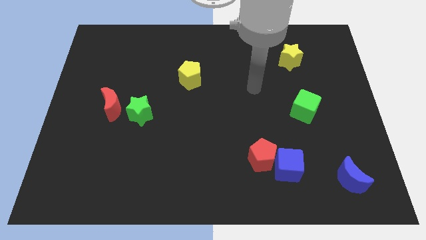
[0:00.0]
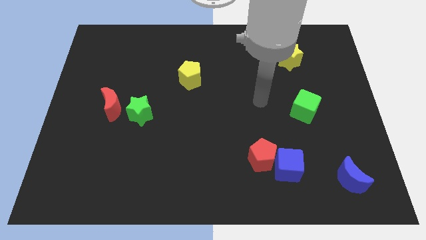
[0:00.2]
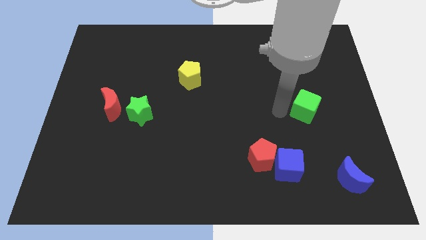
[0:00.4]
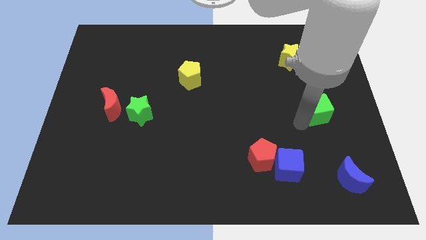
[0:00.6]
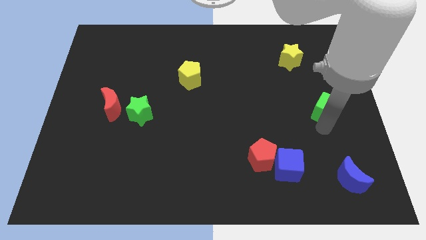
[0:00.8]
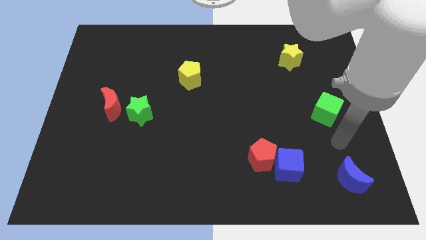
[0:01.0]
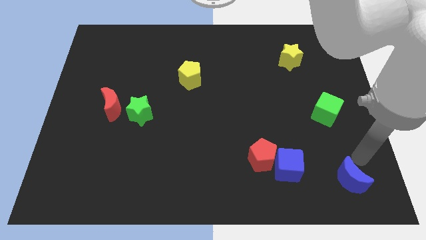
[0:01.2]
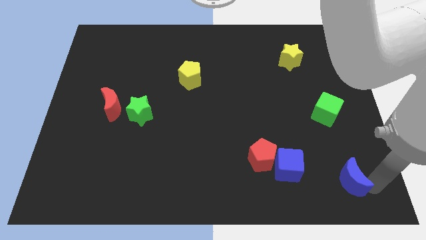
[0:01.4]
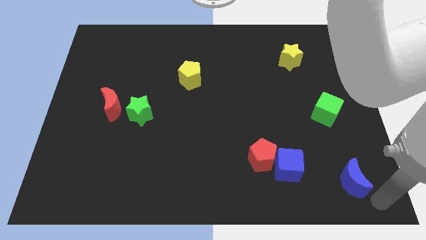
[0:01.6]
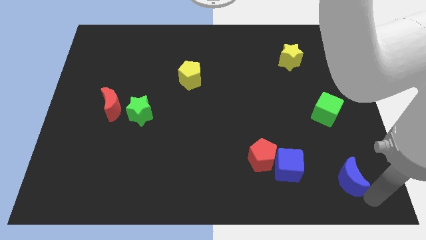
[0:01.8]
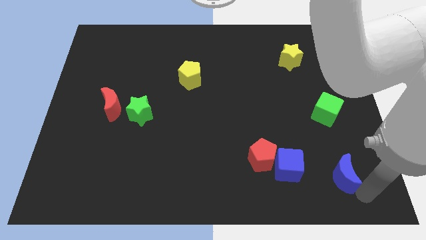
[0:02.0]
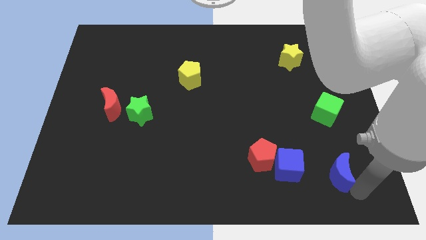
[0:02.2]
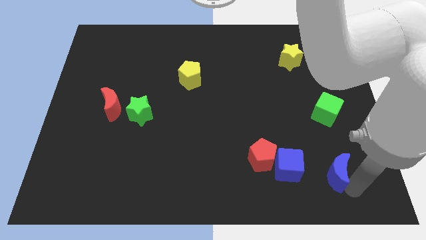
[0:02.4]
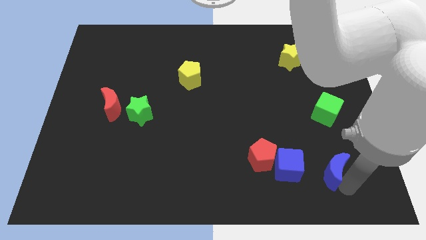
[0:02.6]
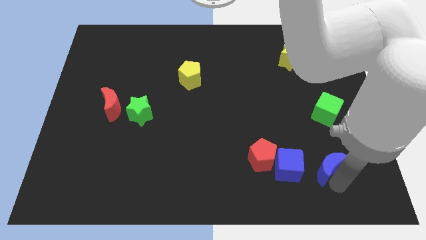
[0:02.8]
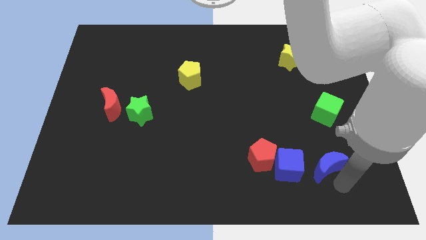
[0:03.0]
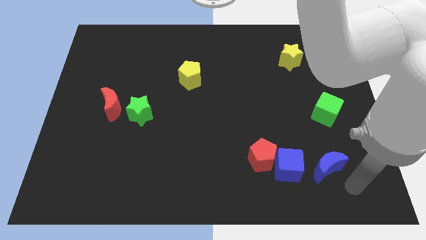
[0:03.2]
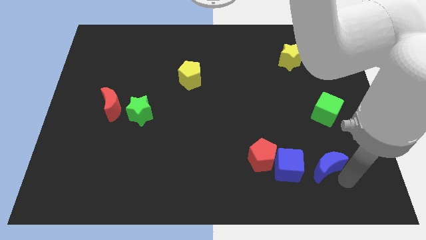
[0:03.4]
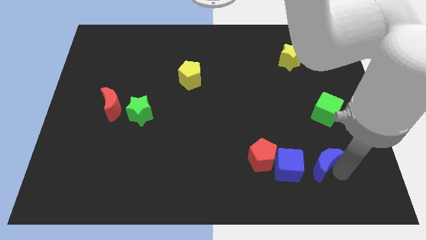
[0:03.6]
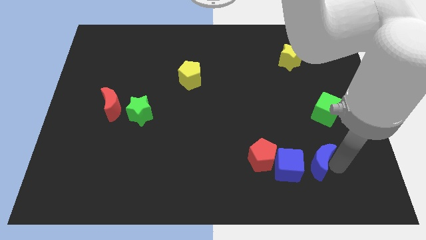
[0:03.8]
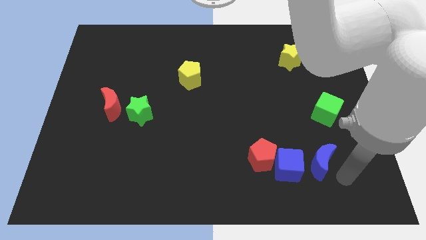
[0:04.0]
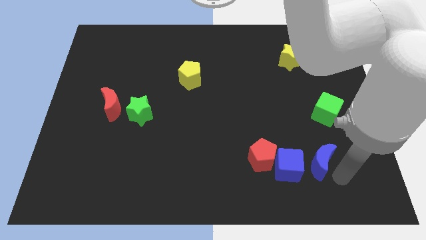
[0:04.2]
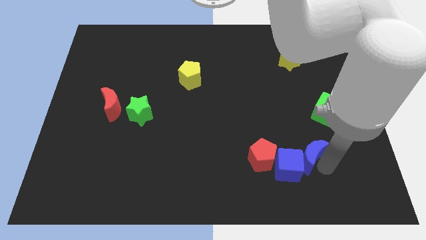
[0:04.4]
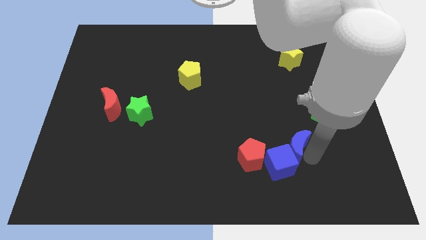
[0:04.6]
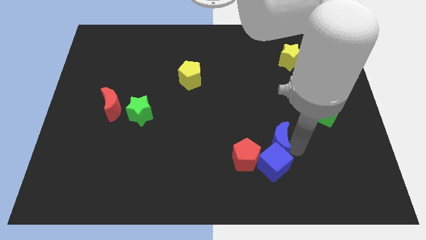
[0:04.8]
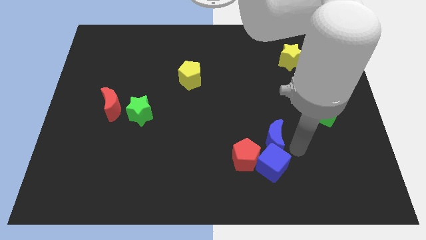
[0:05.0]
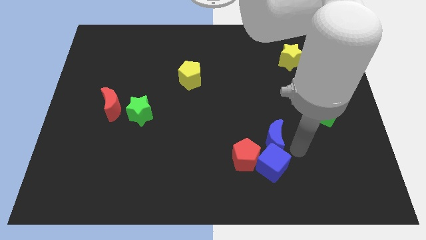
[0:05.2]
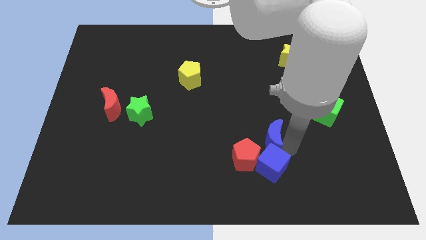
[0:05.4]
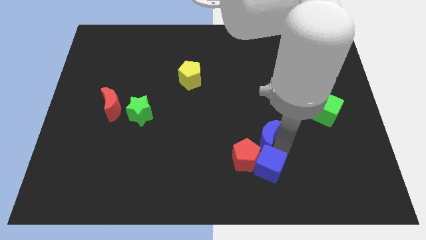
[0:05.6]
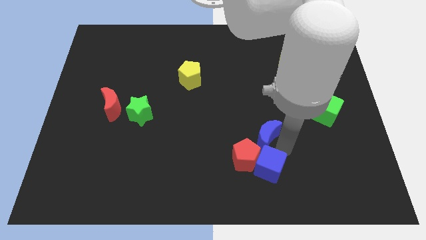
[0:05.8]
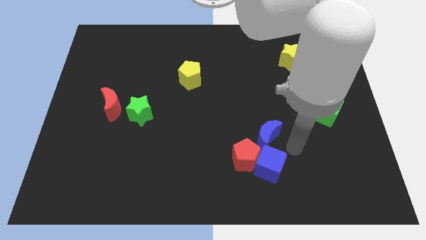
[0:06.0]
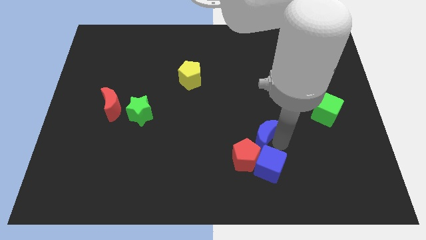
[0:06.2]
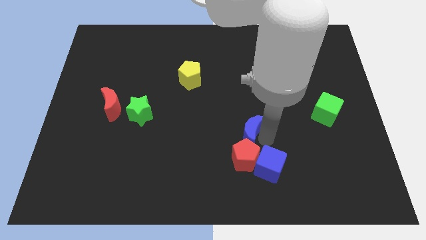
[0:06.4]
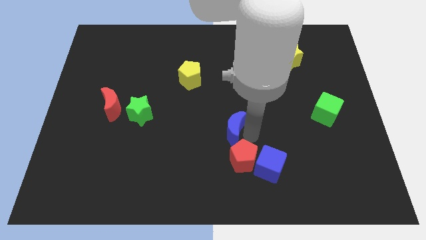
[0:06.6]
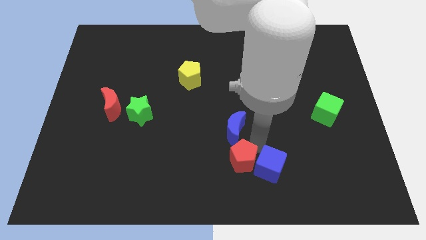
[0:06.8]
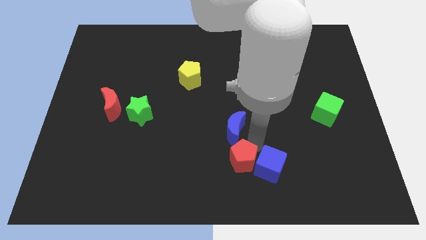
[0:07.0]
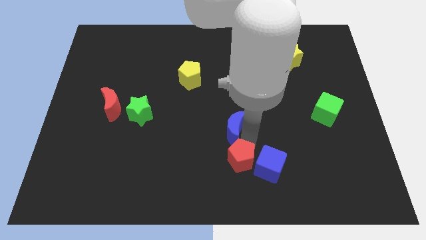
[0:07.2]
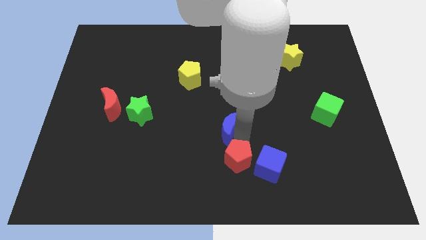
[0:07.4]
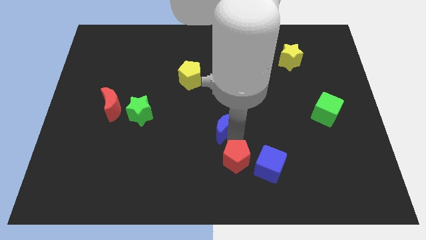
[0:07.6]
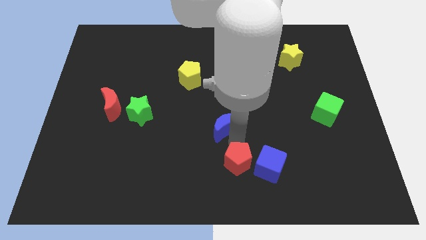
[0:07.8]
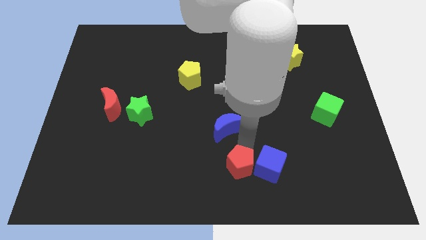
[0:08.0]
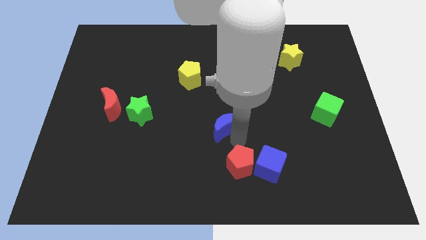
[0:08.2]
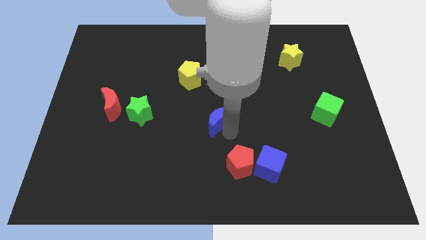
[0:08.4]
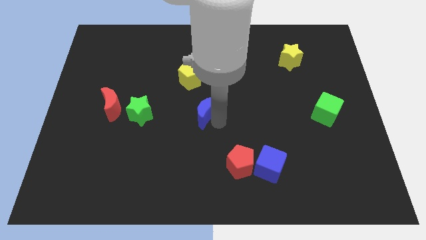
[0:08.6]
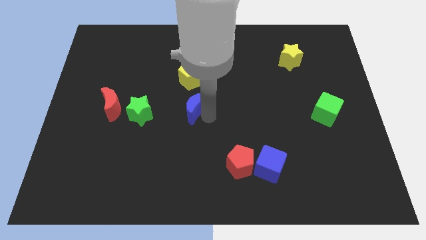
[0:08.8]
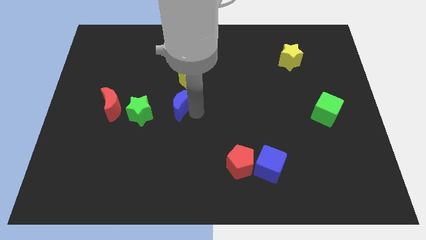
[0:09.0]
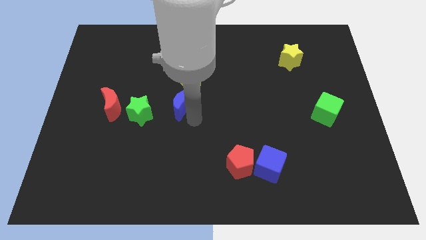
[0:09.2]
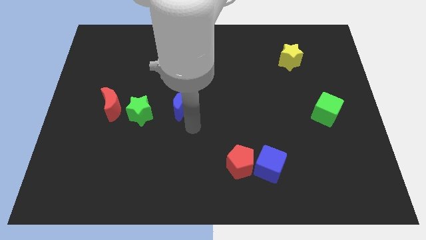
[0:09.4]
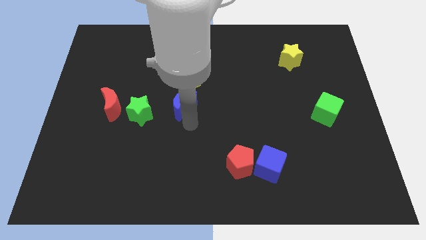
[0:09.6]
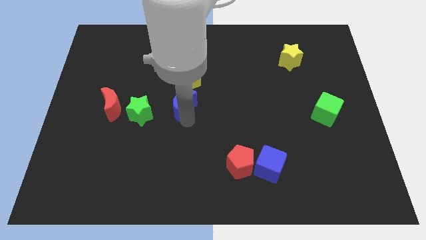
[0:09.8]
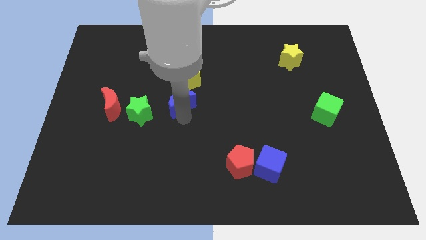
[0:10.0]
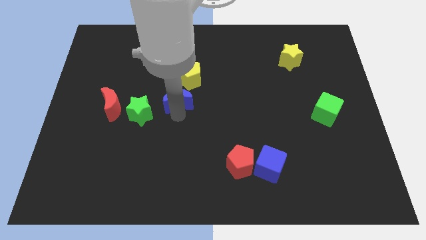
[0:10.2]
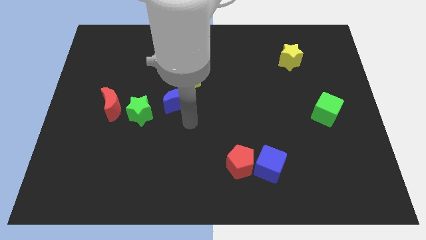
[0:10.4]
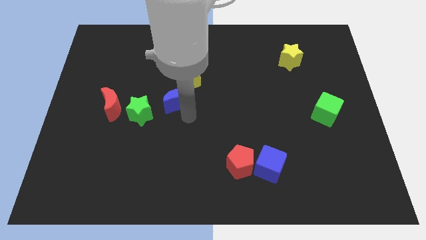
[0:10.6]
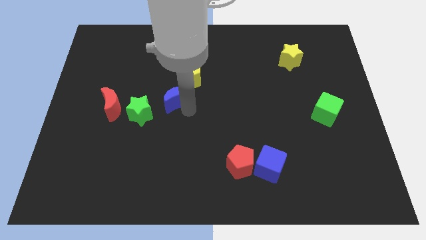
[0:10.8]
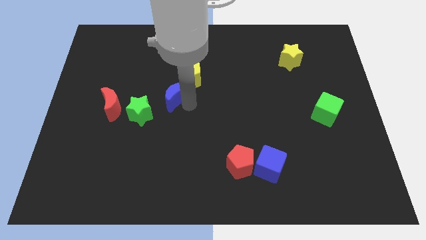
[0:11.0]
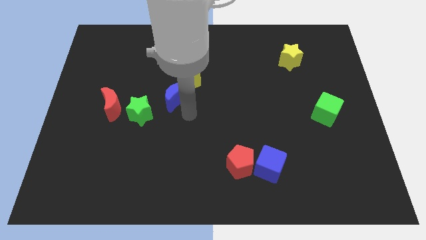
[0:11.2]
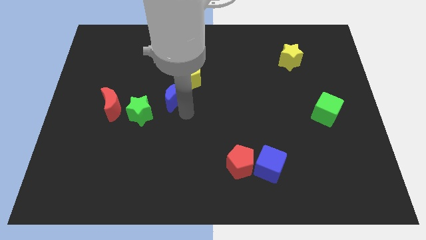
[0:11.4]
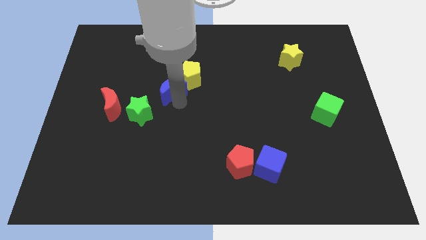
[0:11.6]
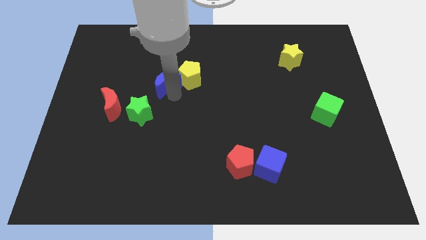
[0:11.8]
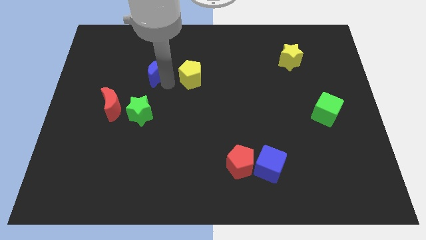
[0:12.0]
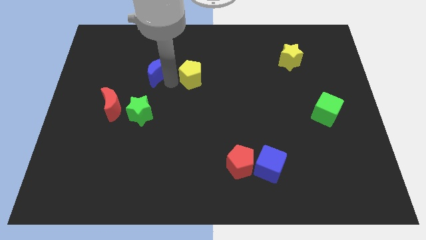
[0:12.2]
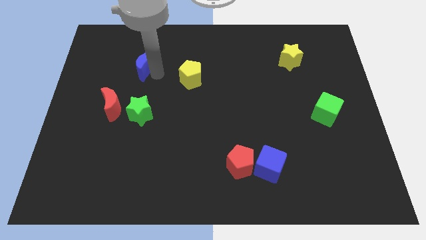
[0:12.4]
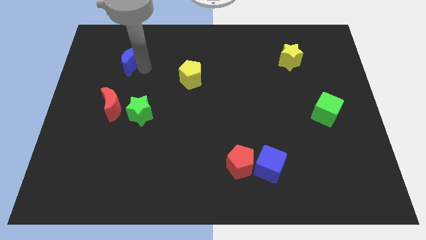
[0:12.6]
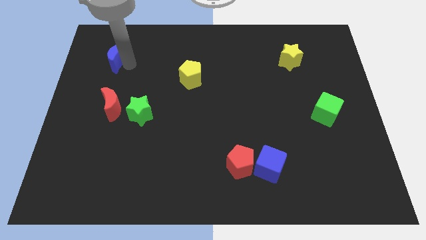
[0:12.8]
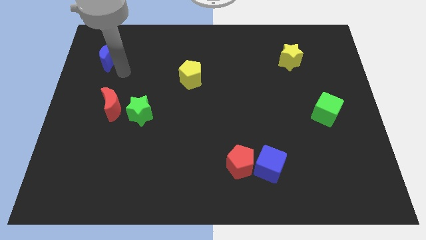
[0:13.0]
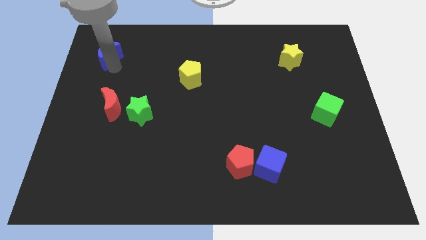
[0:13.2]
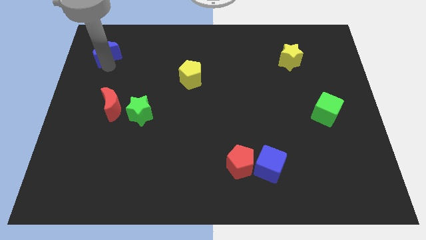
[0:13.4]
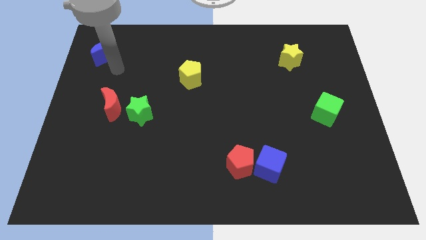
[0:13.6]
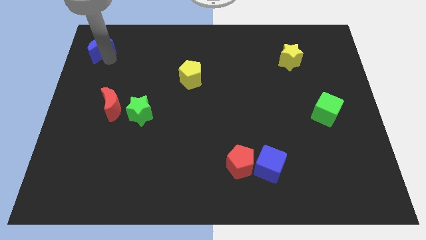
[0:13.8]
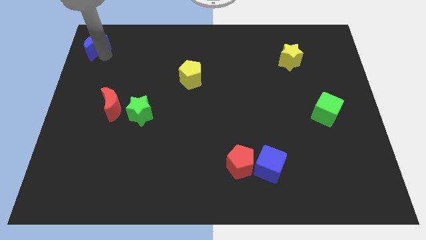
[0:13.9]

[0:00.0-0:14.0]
move the blue moon to the top left of the board
